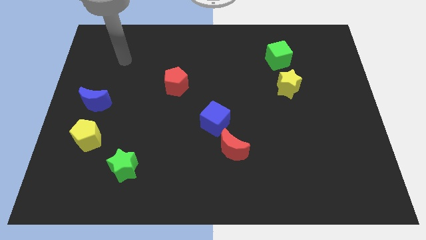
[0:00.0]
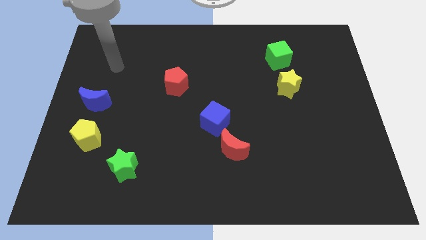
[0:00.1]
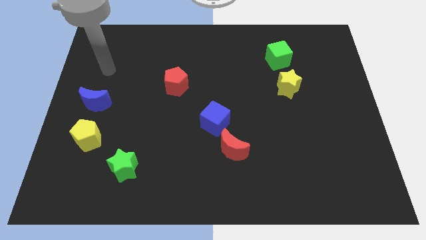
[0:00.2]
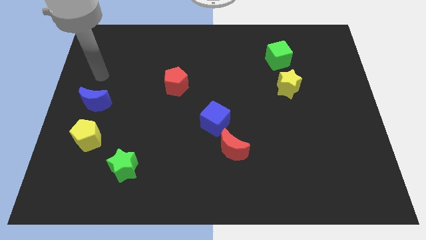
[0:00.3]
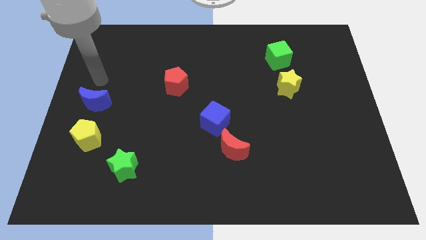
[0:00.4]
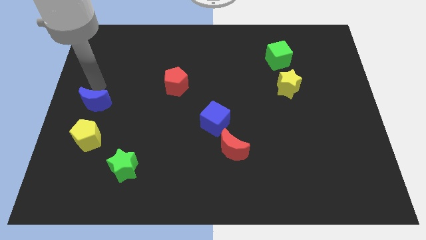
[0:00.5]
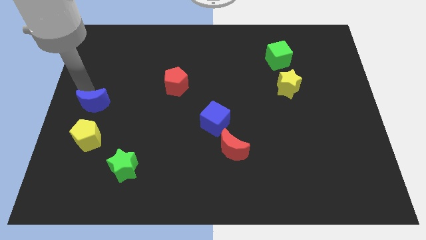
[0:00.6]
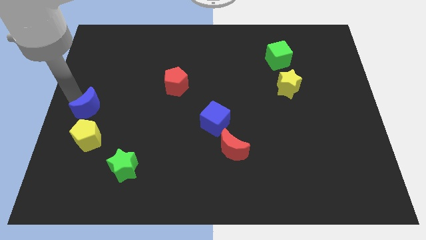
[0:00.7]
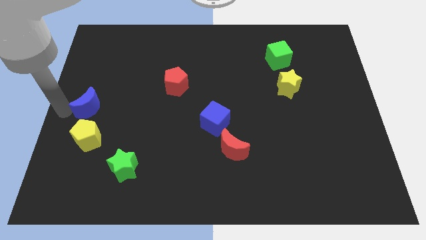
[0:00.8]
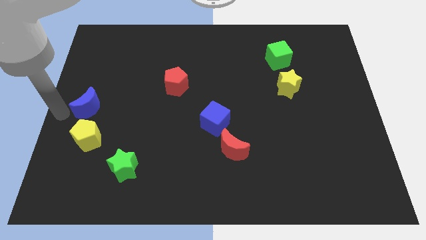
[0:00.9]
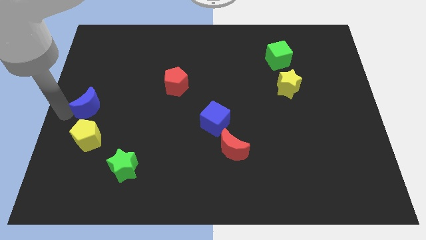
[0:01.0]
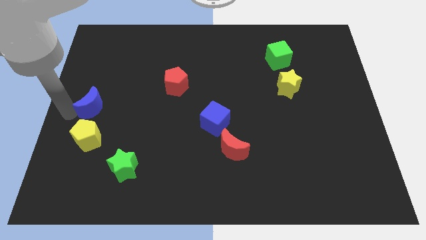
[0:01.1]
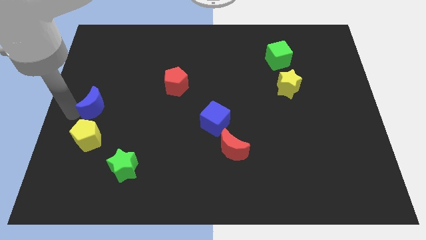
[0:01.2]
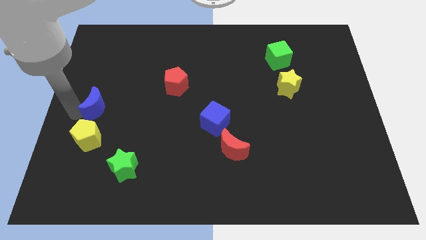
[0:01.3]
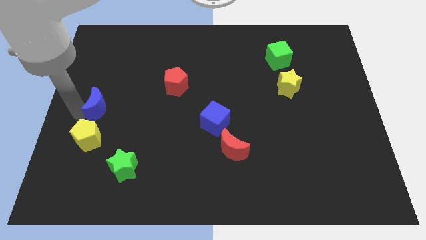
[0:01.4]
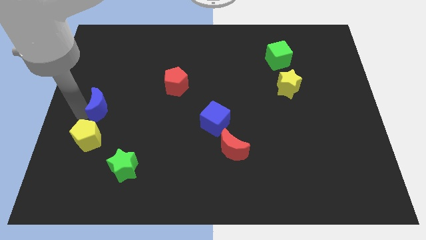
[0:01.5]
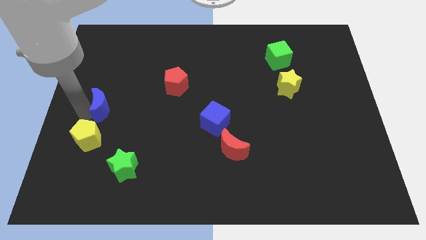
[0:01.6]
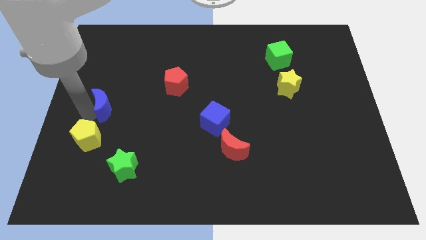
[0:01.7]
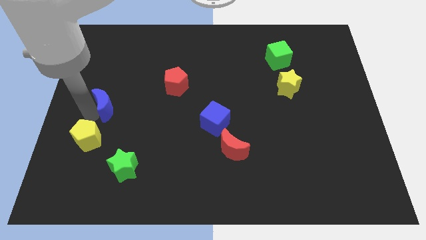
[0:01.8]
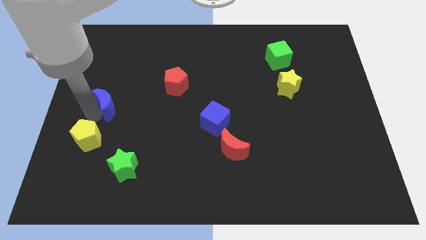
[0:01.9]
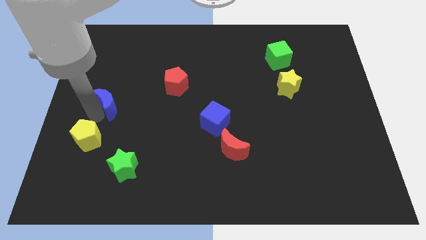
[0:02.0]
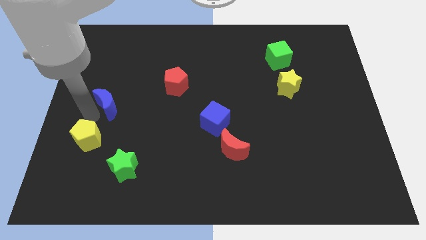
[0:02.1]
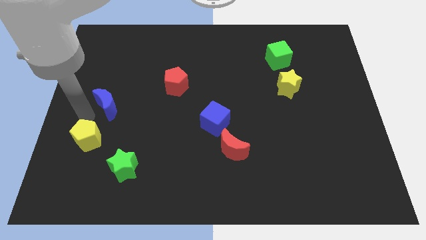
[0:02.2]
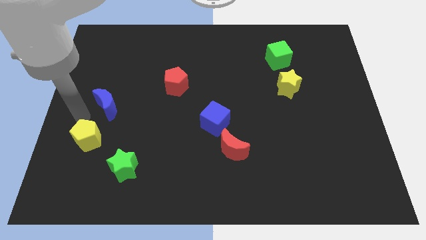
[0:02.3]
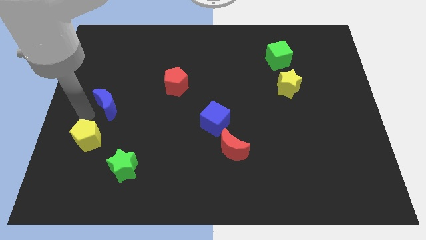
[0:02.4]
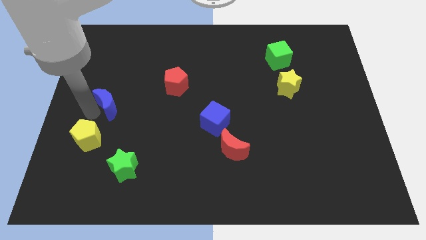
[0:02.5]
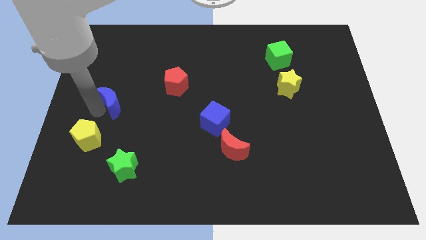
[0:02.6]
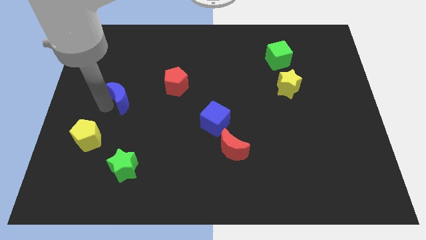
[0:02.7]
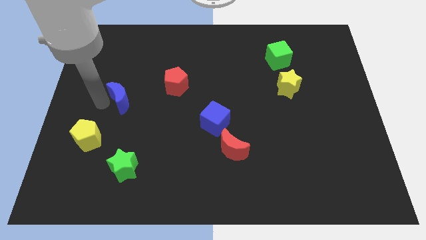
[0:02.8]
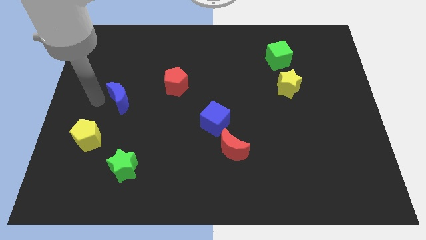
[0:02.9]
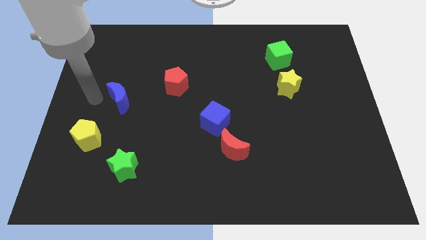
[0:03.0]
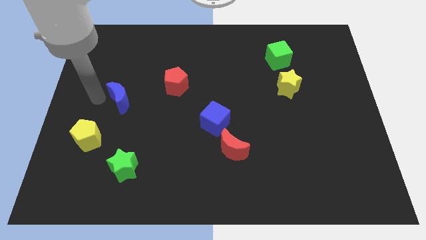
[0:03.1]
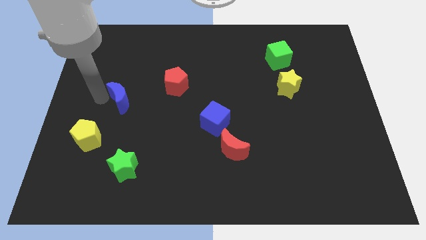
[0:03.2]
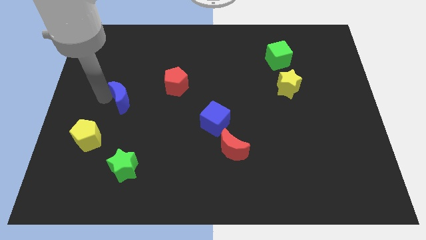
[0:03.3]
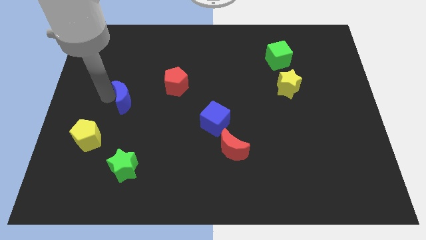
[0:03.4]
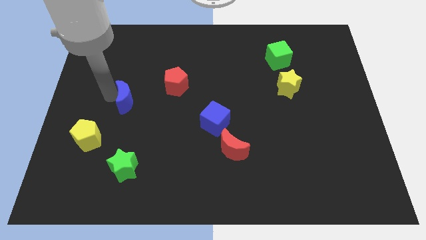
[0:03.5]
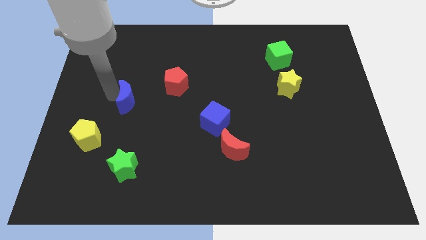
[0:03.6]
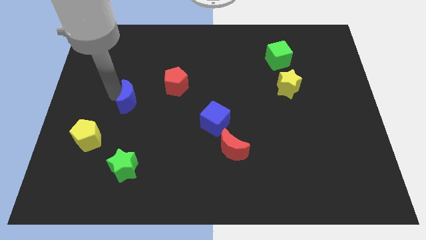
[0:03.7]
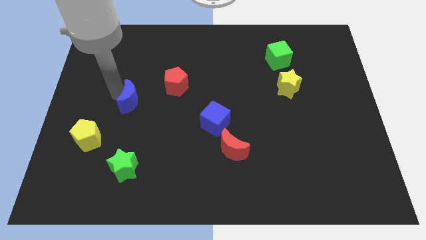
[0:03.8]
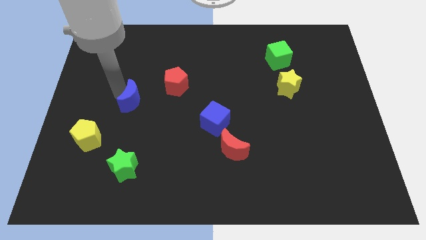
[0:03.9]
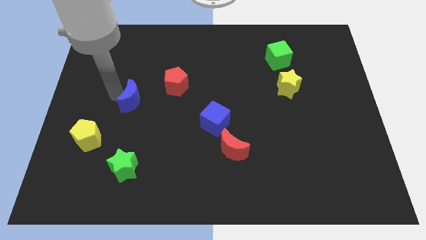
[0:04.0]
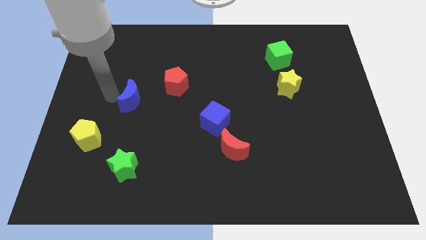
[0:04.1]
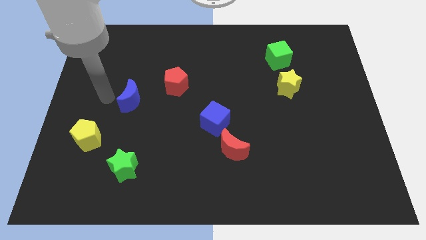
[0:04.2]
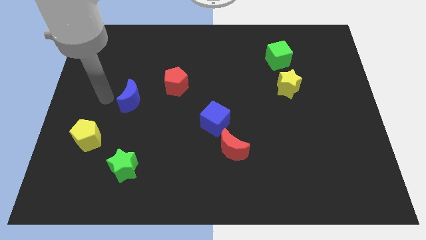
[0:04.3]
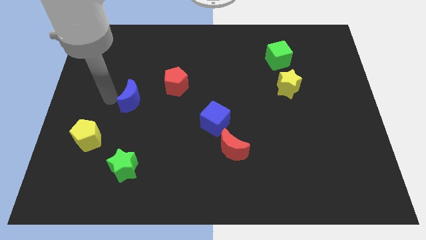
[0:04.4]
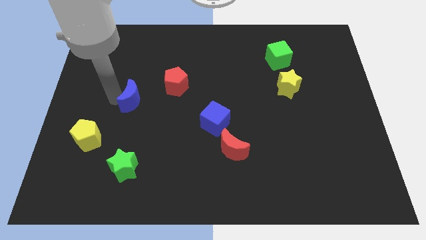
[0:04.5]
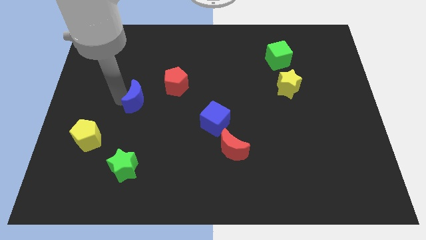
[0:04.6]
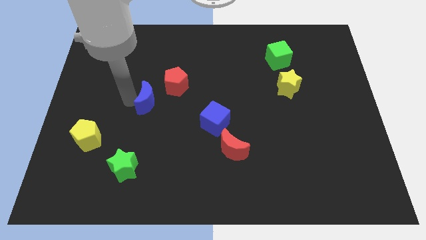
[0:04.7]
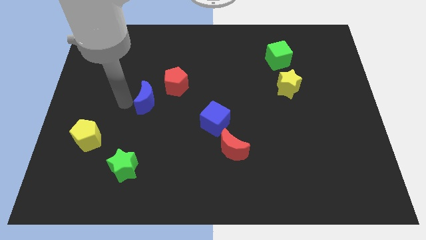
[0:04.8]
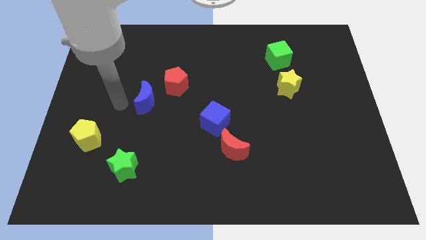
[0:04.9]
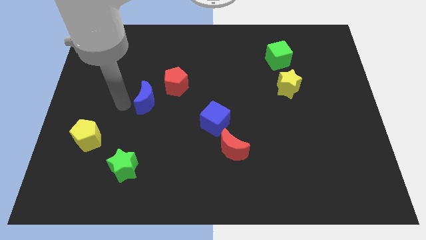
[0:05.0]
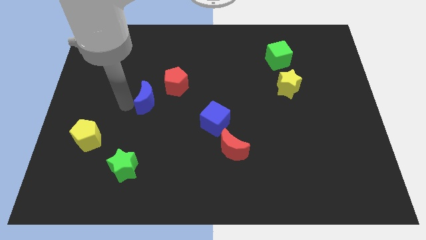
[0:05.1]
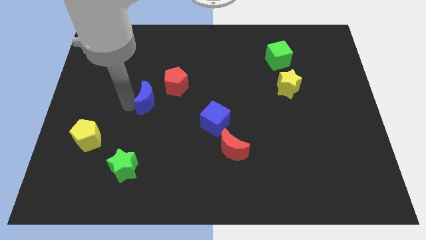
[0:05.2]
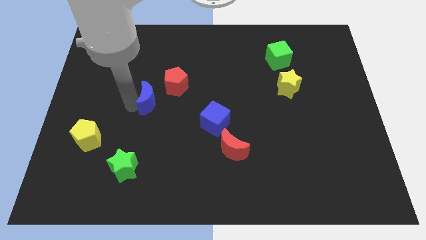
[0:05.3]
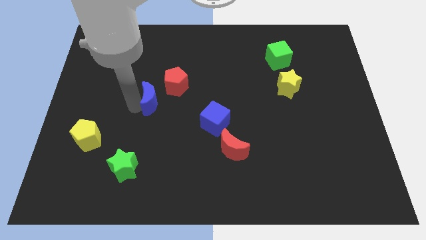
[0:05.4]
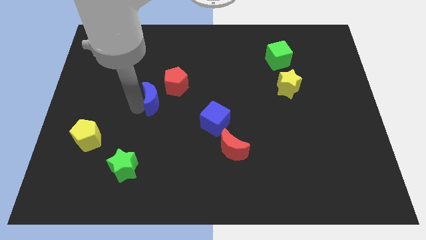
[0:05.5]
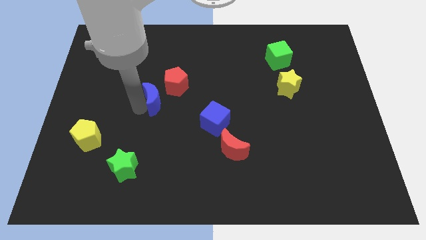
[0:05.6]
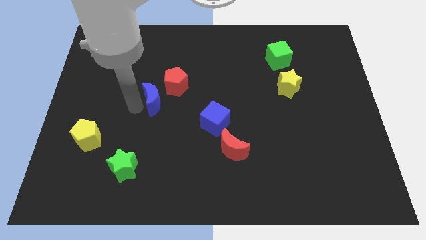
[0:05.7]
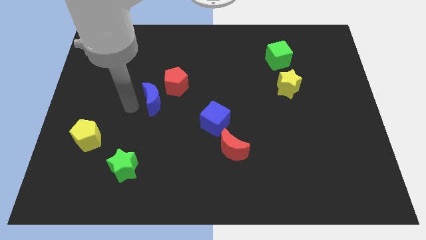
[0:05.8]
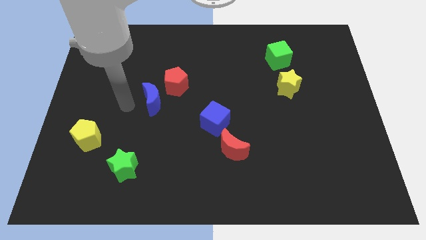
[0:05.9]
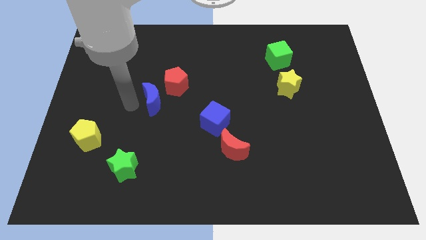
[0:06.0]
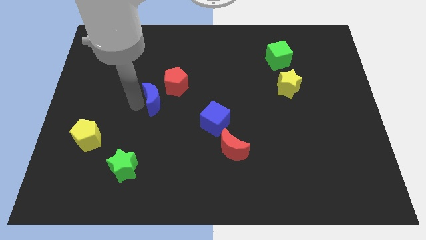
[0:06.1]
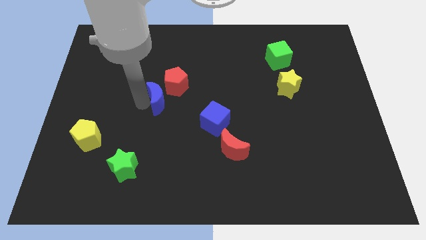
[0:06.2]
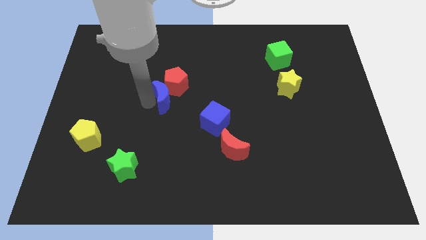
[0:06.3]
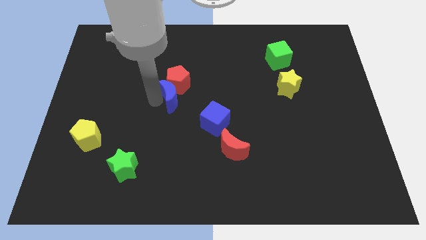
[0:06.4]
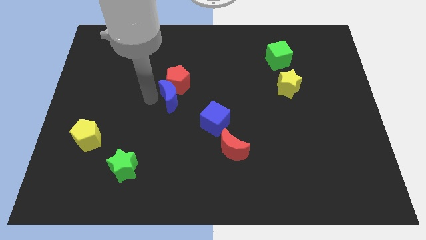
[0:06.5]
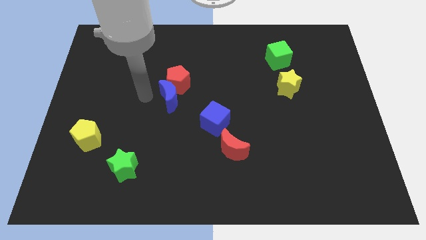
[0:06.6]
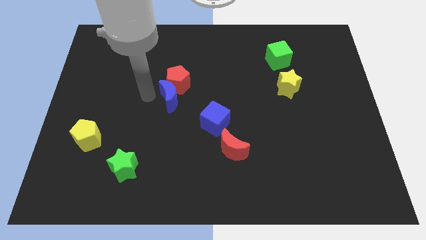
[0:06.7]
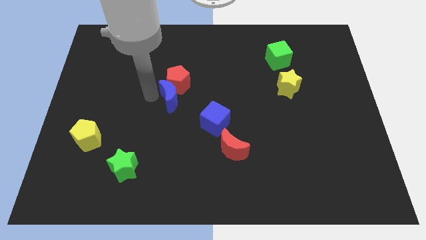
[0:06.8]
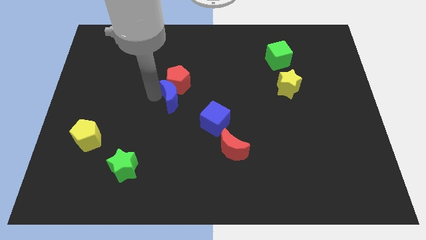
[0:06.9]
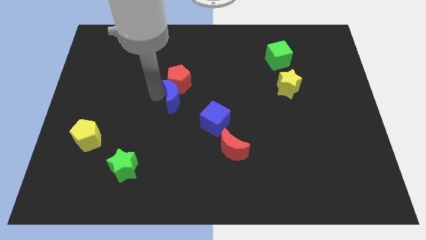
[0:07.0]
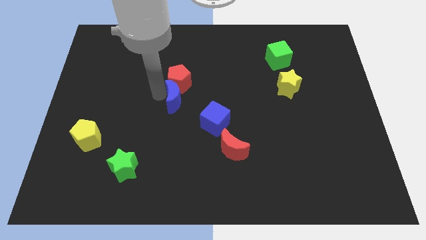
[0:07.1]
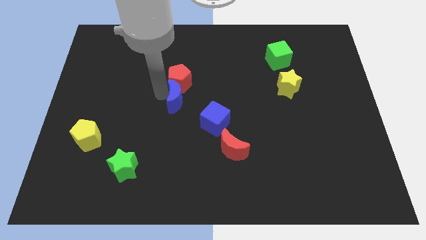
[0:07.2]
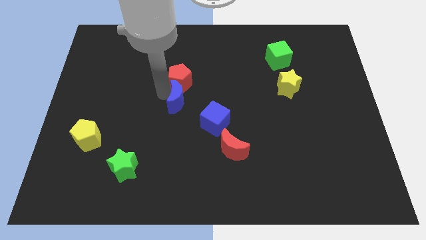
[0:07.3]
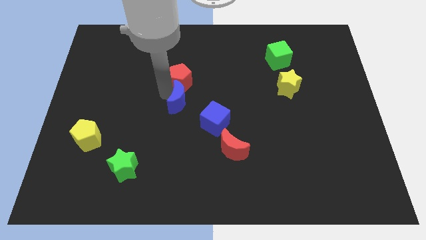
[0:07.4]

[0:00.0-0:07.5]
slide the blue moon right

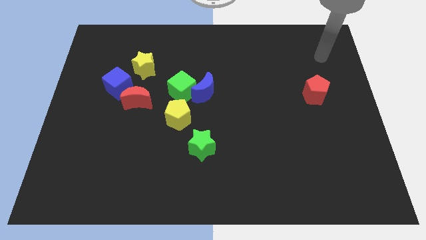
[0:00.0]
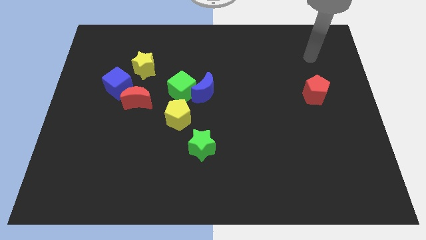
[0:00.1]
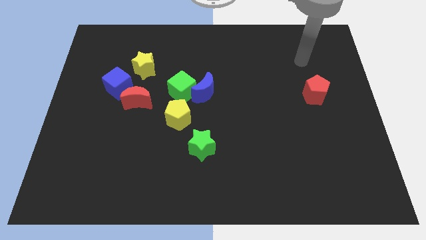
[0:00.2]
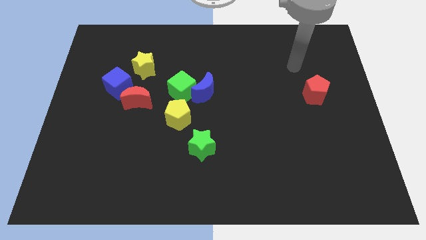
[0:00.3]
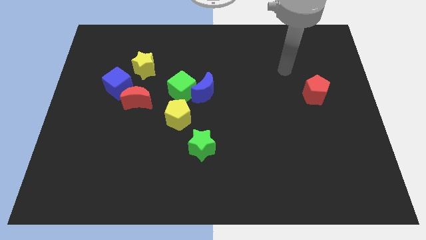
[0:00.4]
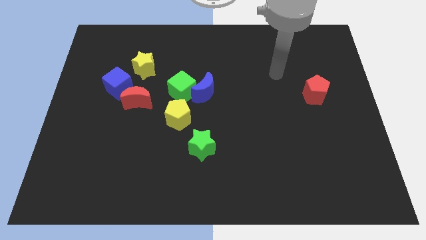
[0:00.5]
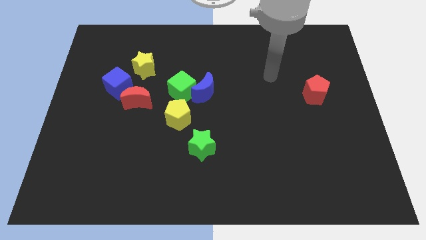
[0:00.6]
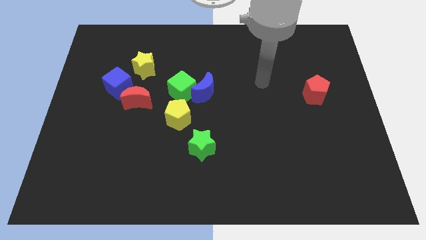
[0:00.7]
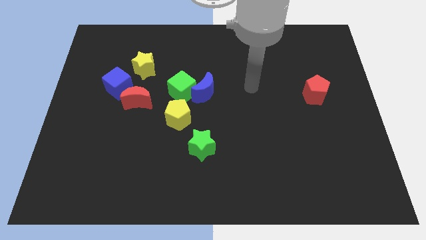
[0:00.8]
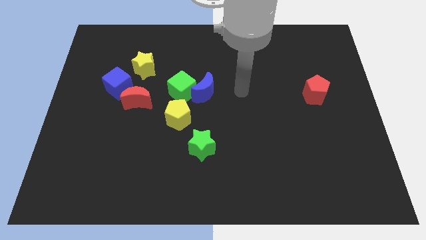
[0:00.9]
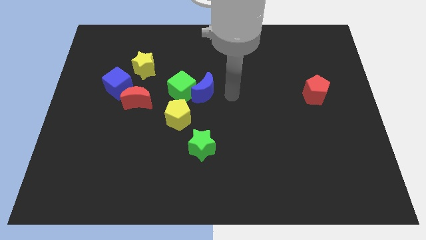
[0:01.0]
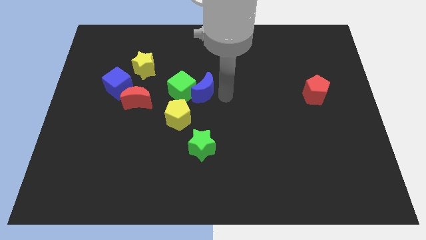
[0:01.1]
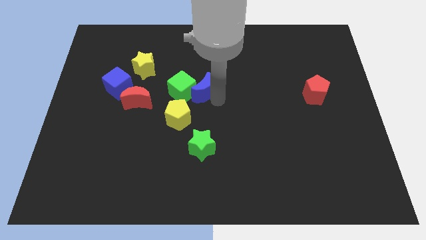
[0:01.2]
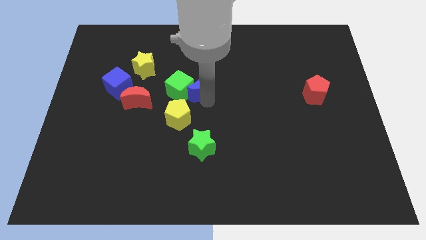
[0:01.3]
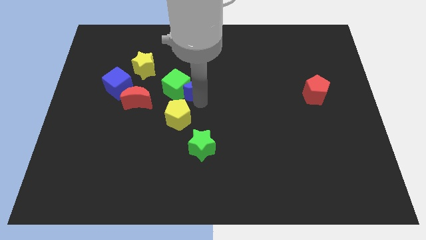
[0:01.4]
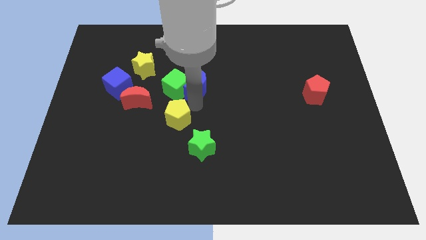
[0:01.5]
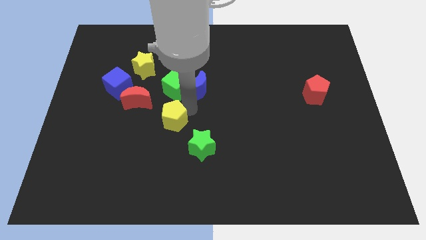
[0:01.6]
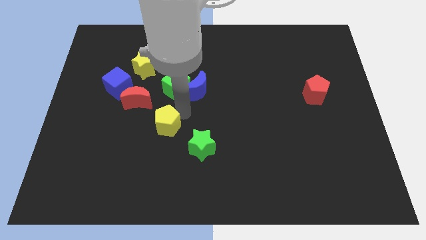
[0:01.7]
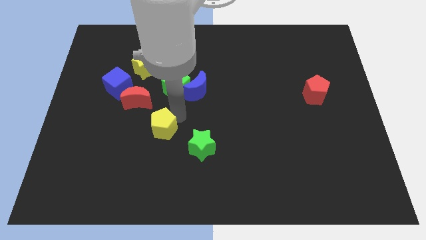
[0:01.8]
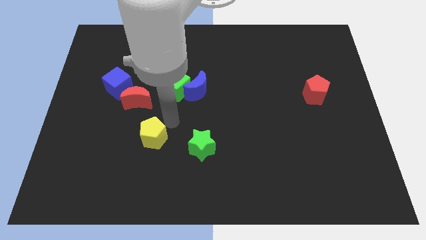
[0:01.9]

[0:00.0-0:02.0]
slide the yellow pentagon downwards and left diagonally a little
